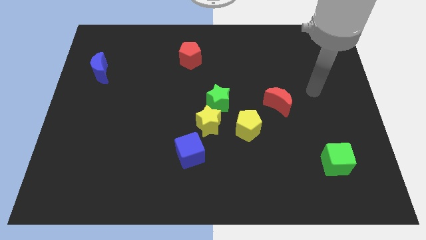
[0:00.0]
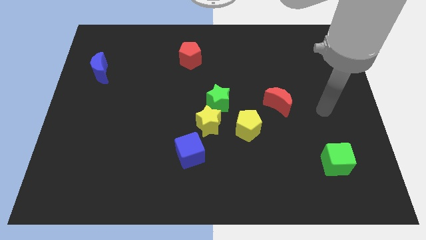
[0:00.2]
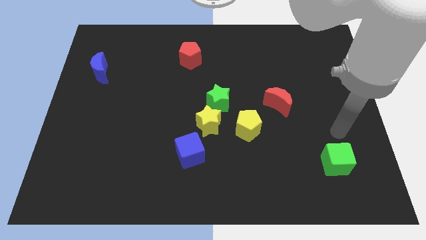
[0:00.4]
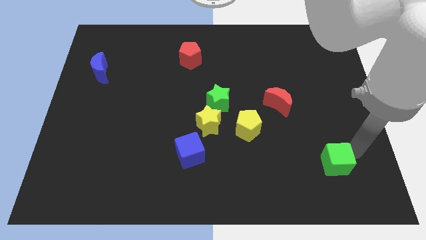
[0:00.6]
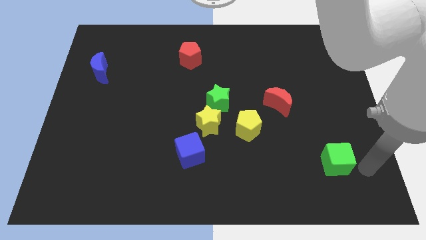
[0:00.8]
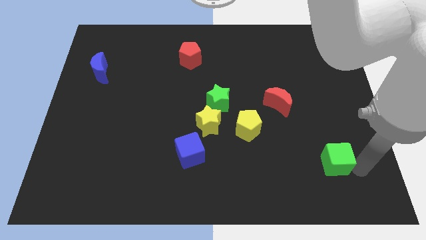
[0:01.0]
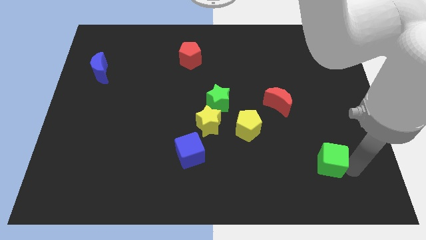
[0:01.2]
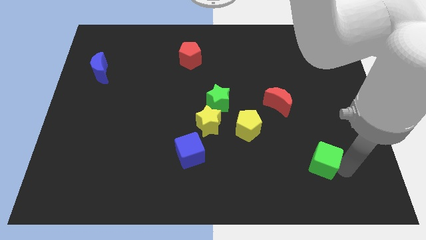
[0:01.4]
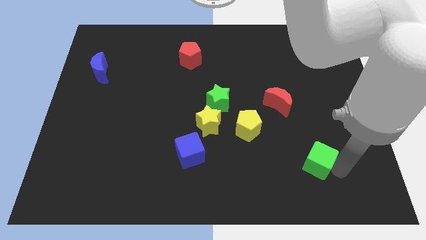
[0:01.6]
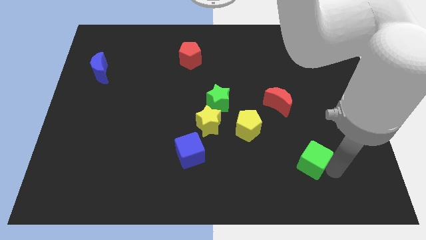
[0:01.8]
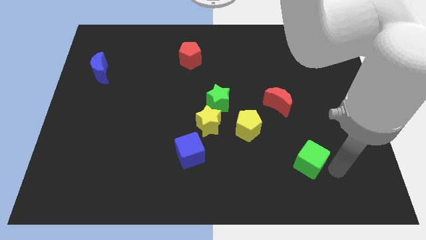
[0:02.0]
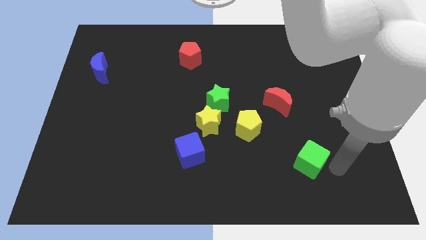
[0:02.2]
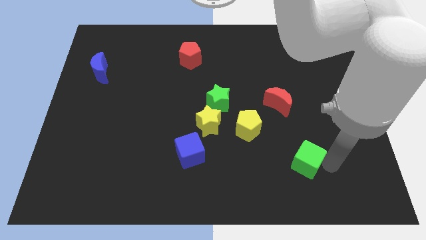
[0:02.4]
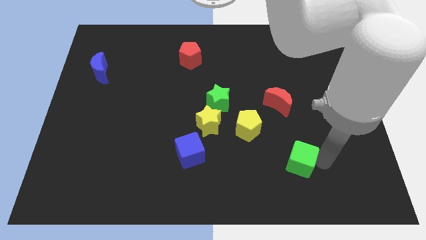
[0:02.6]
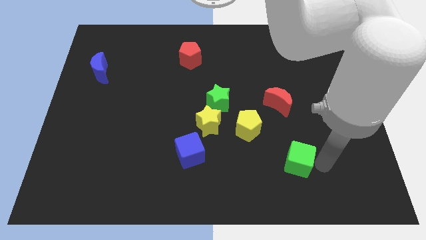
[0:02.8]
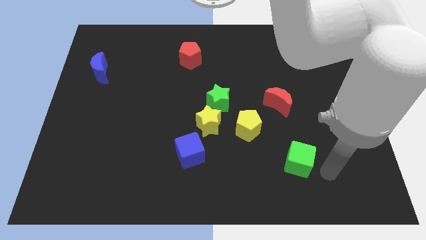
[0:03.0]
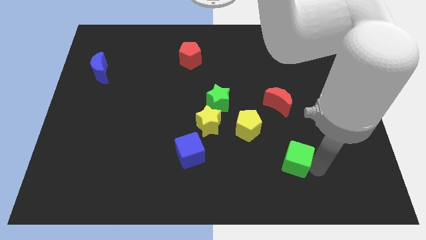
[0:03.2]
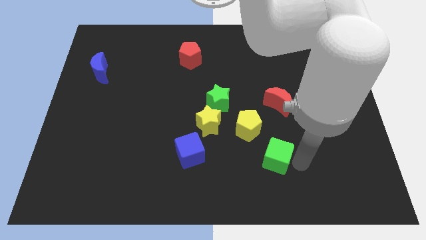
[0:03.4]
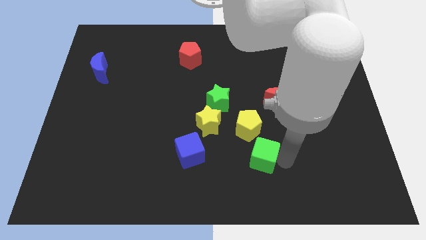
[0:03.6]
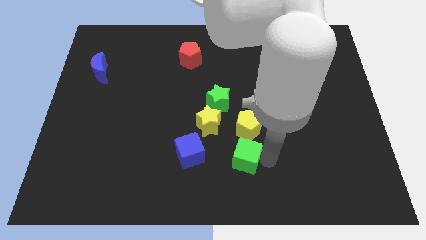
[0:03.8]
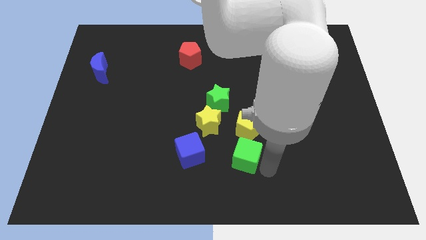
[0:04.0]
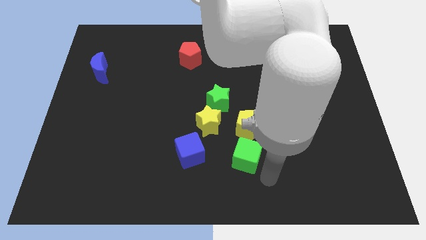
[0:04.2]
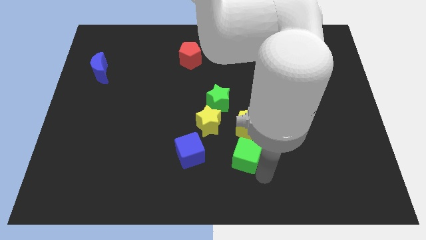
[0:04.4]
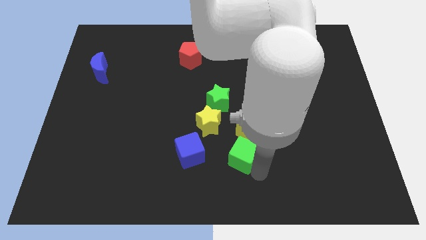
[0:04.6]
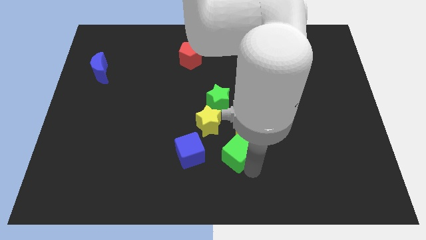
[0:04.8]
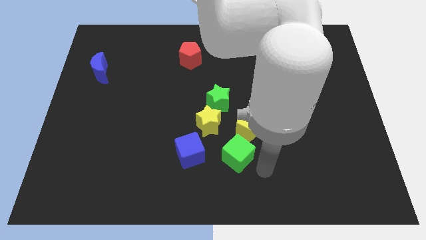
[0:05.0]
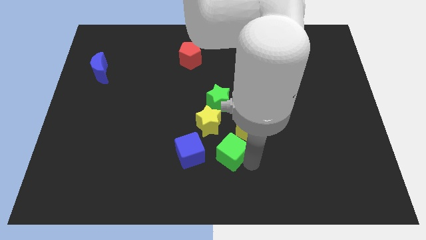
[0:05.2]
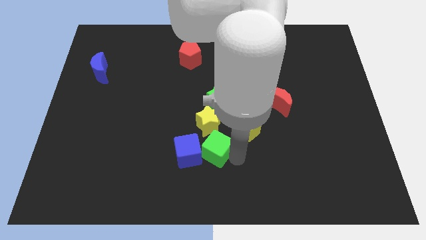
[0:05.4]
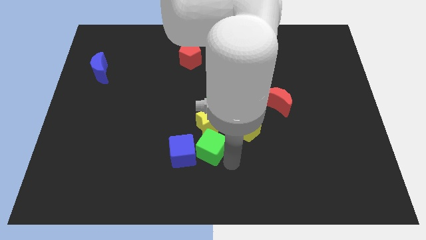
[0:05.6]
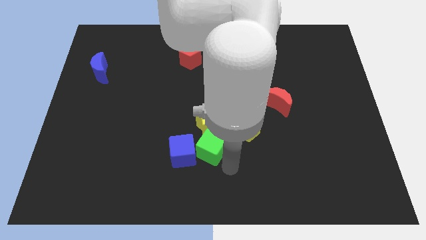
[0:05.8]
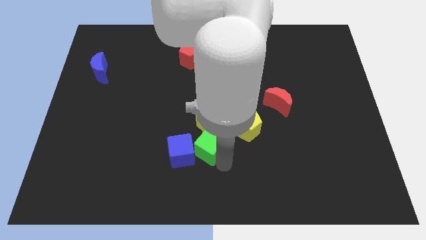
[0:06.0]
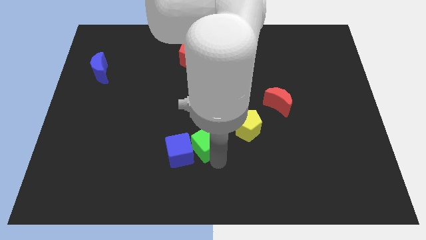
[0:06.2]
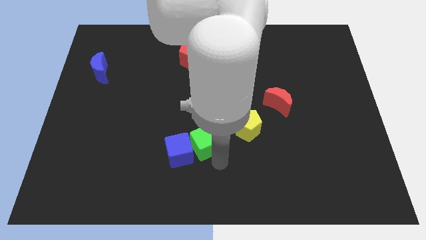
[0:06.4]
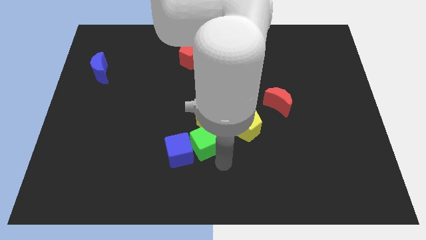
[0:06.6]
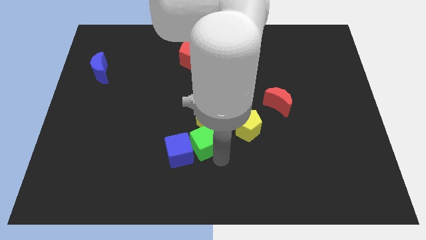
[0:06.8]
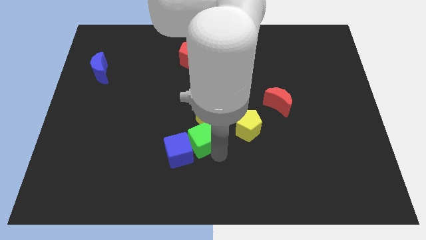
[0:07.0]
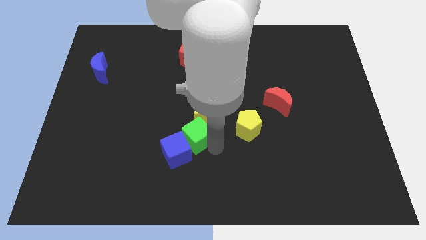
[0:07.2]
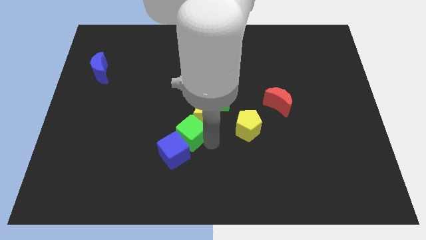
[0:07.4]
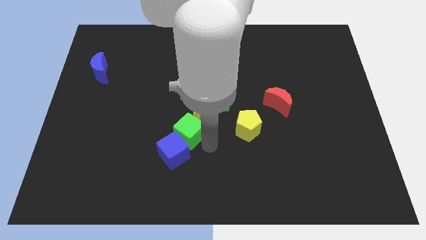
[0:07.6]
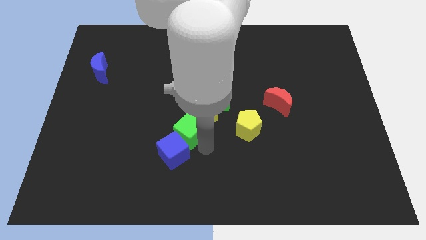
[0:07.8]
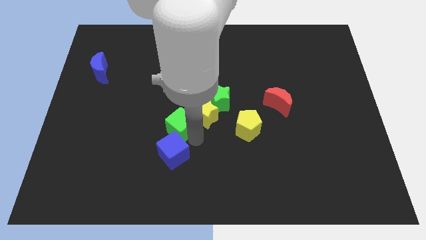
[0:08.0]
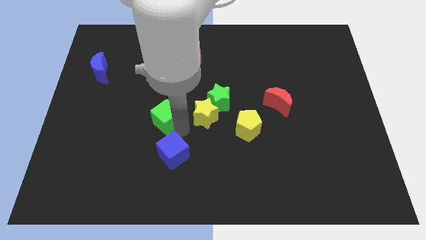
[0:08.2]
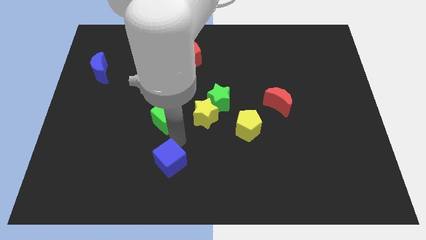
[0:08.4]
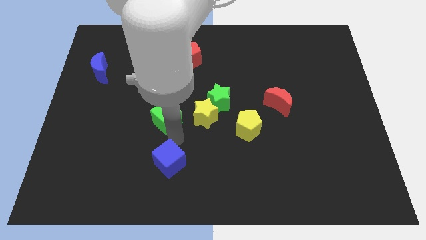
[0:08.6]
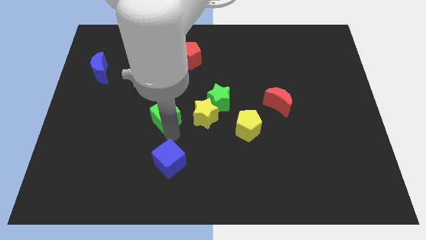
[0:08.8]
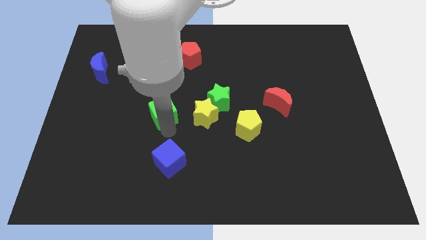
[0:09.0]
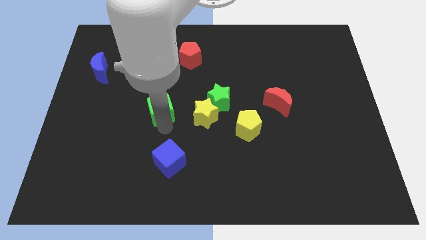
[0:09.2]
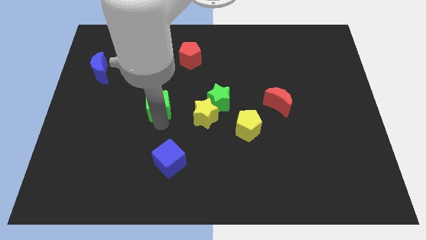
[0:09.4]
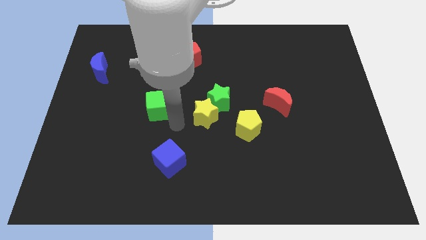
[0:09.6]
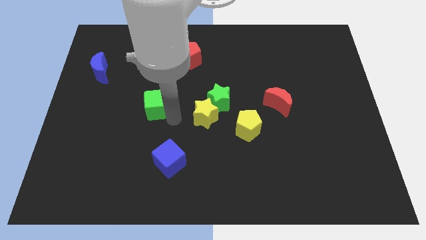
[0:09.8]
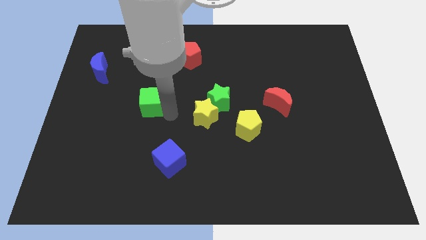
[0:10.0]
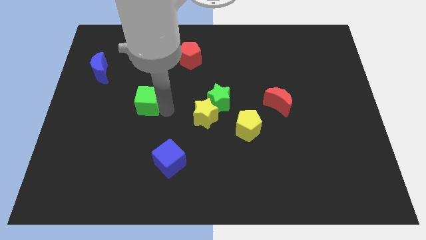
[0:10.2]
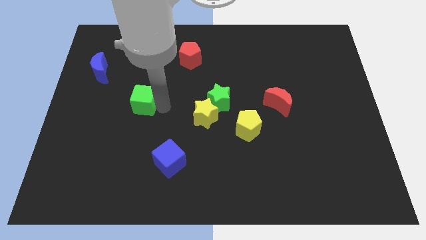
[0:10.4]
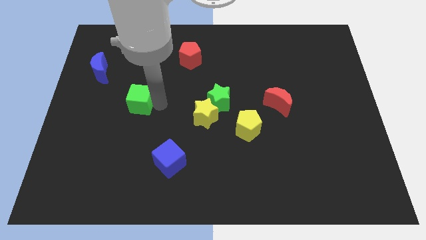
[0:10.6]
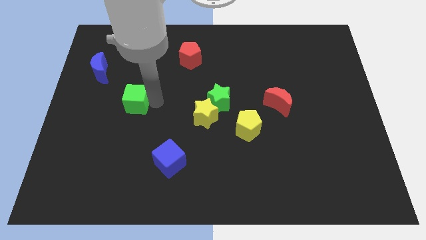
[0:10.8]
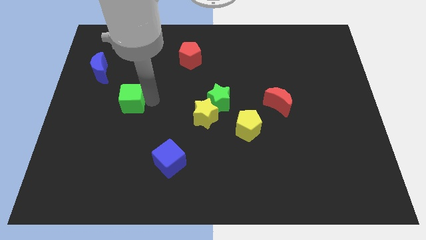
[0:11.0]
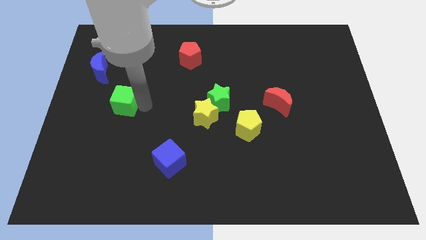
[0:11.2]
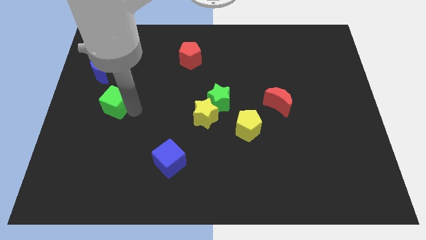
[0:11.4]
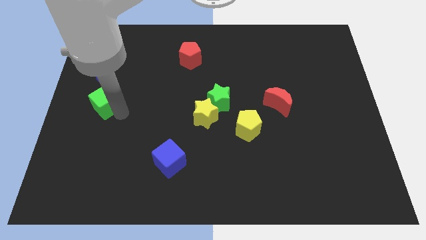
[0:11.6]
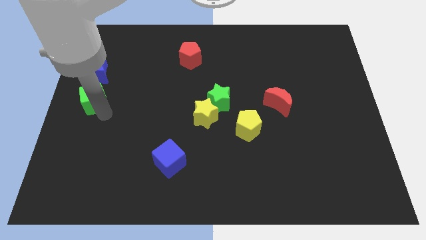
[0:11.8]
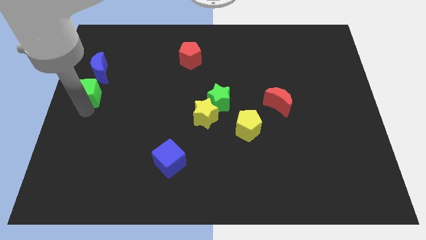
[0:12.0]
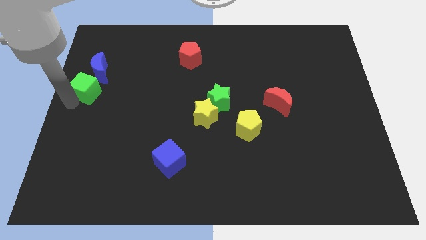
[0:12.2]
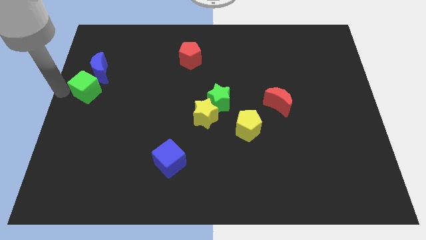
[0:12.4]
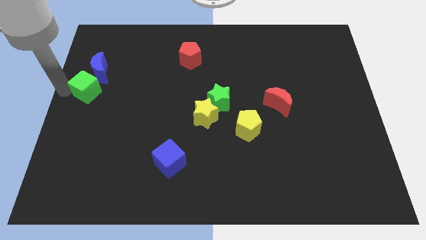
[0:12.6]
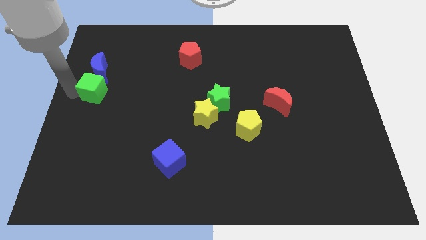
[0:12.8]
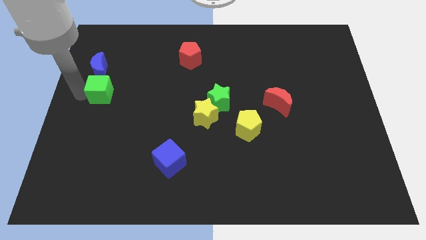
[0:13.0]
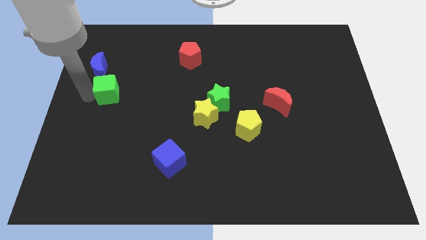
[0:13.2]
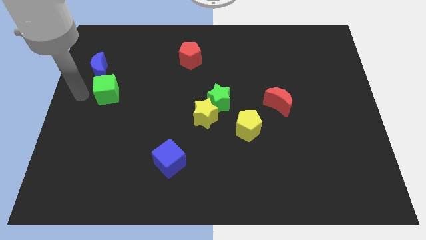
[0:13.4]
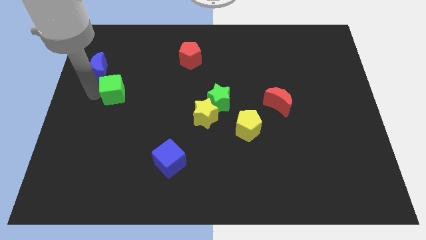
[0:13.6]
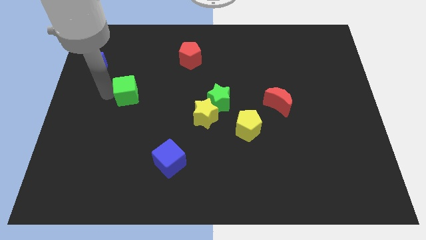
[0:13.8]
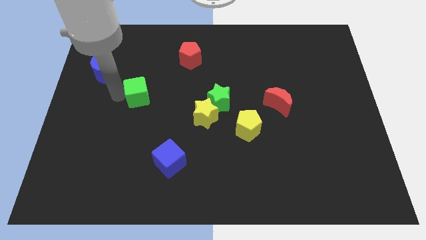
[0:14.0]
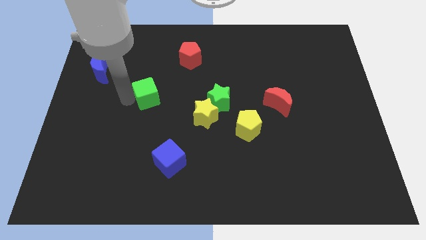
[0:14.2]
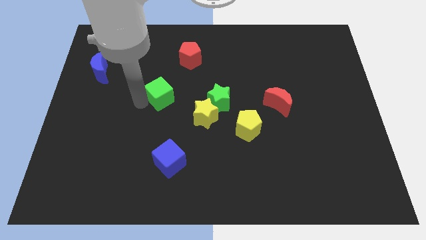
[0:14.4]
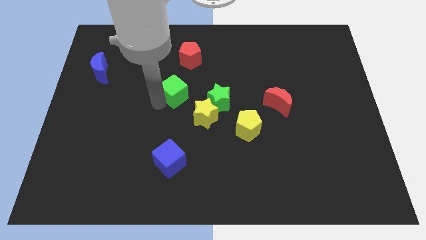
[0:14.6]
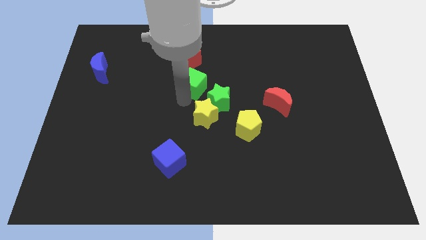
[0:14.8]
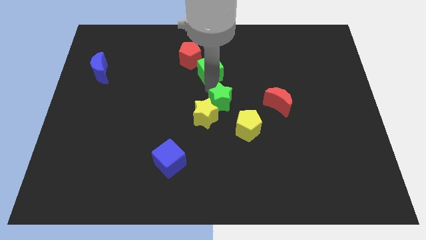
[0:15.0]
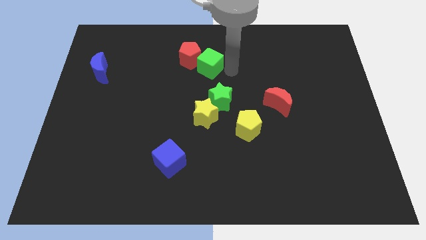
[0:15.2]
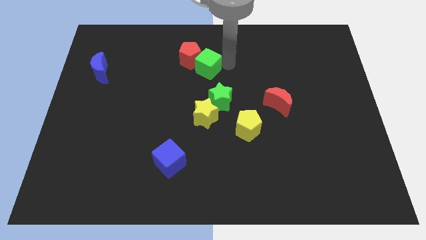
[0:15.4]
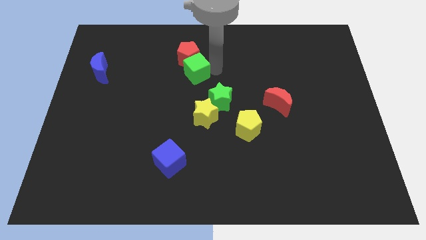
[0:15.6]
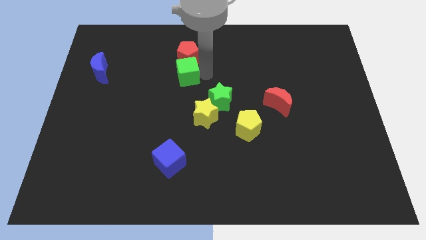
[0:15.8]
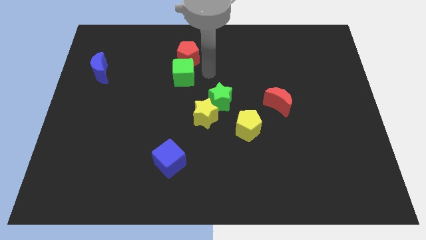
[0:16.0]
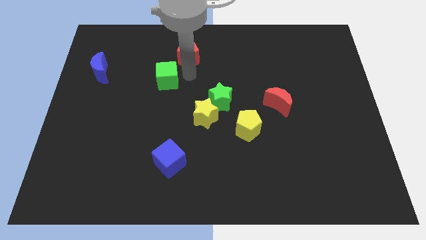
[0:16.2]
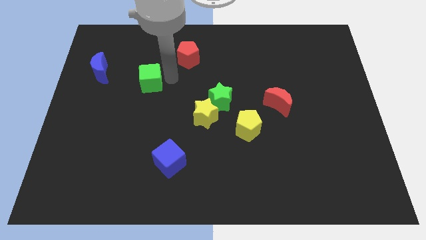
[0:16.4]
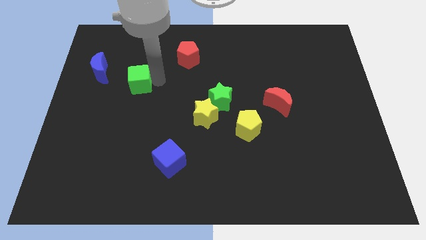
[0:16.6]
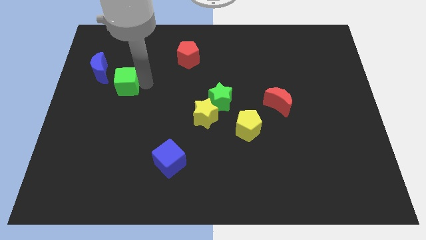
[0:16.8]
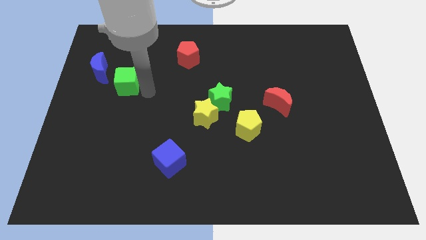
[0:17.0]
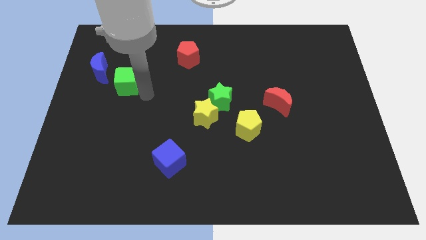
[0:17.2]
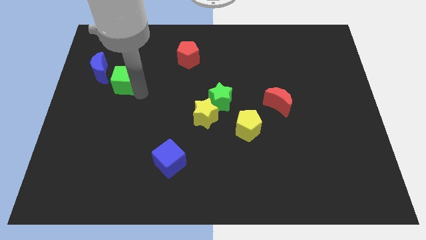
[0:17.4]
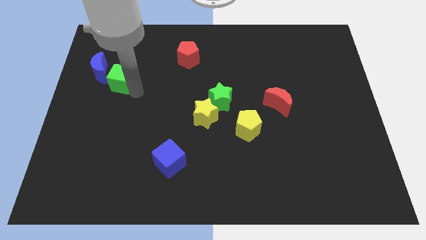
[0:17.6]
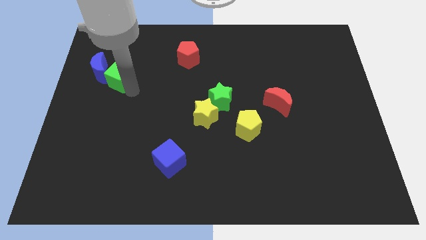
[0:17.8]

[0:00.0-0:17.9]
move the green cube towards the blue moon
